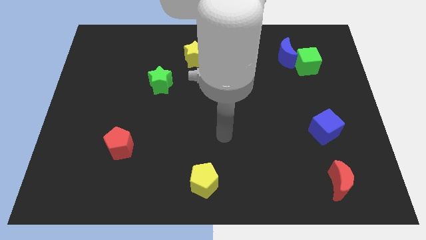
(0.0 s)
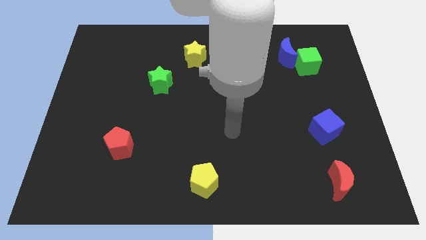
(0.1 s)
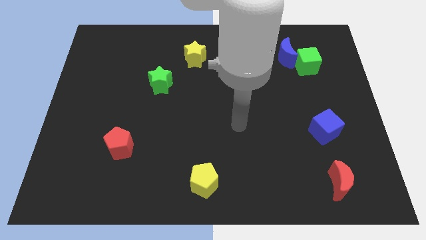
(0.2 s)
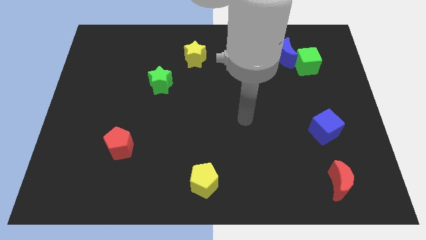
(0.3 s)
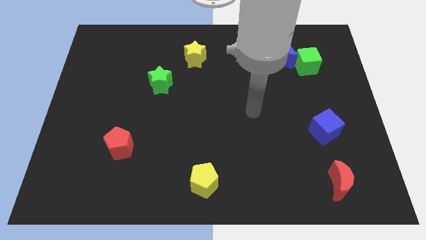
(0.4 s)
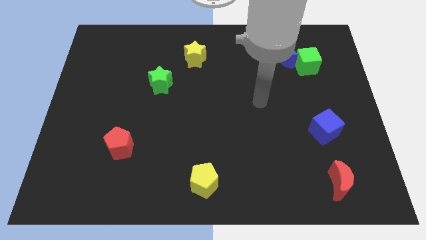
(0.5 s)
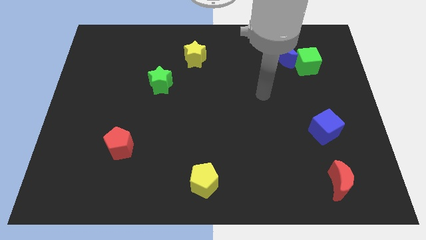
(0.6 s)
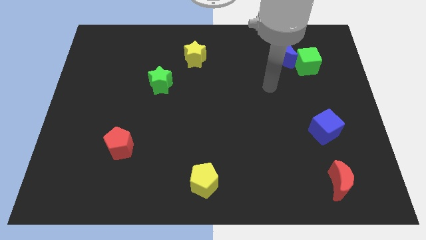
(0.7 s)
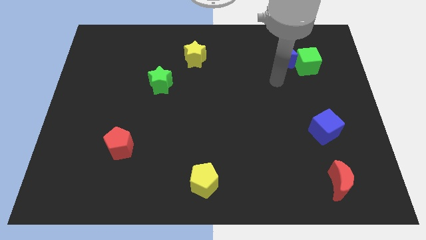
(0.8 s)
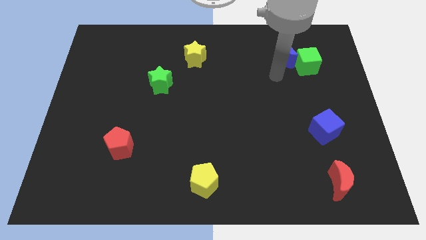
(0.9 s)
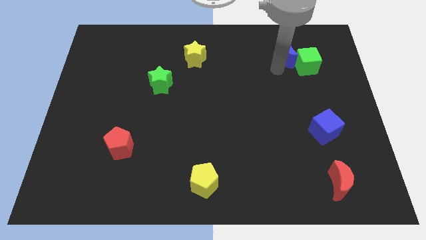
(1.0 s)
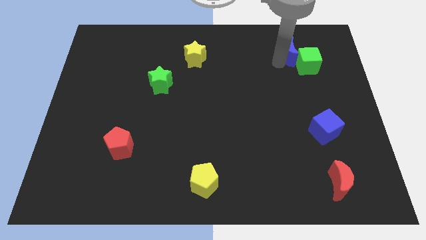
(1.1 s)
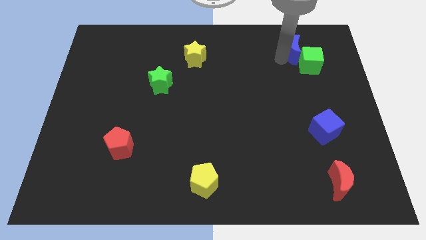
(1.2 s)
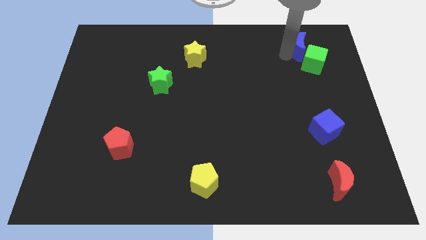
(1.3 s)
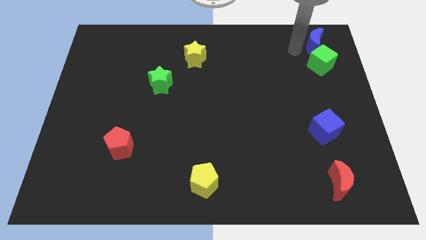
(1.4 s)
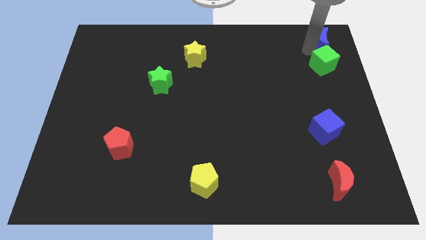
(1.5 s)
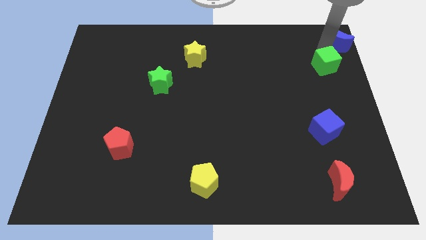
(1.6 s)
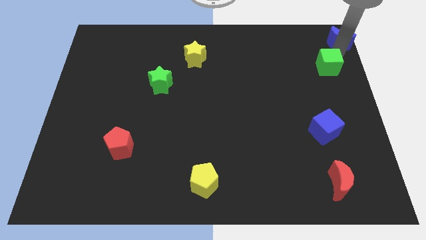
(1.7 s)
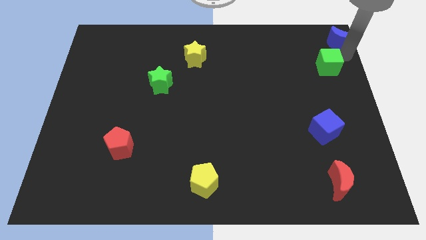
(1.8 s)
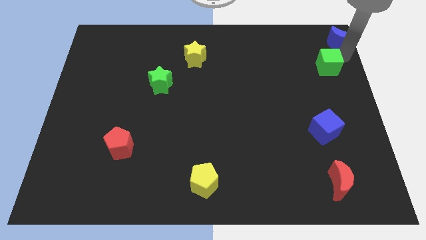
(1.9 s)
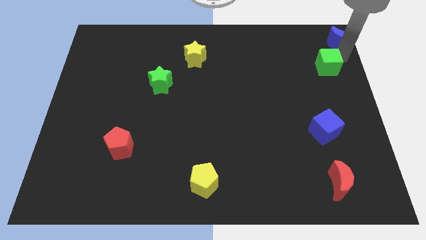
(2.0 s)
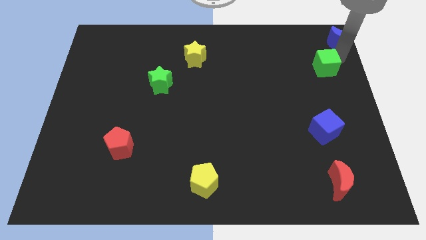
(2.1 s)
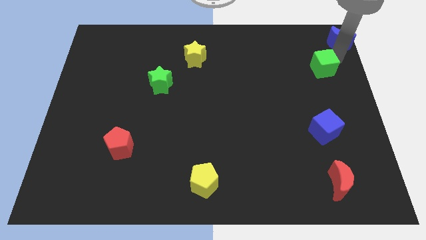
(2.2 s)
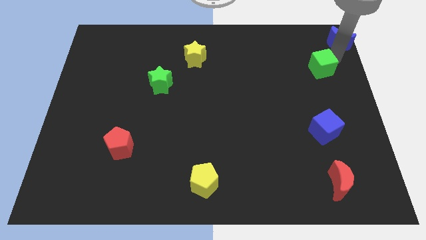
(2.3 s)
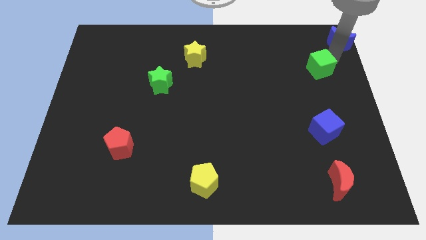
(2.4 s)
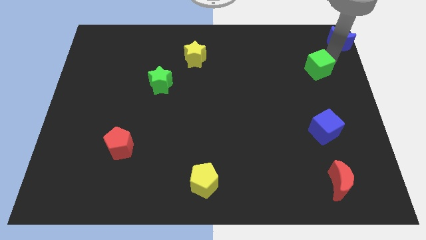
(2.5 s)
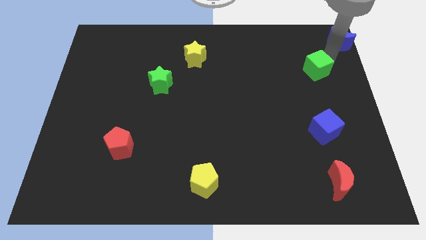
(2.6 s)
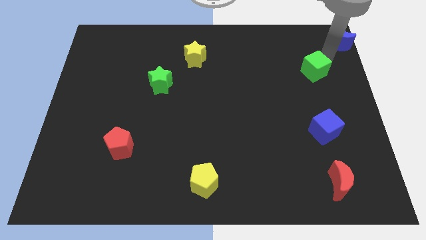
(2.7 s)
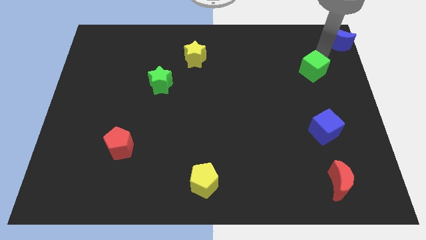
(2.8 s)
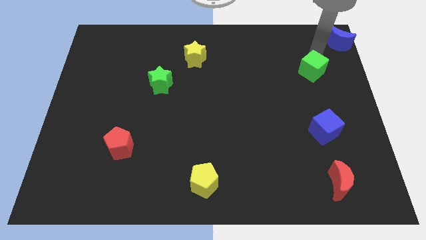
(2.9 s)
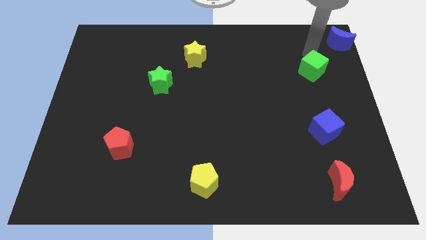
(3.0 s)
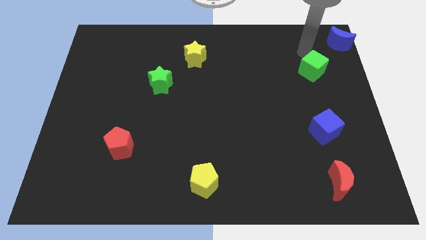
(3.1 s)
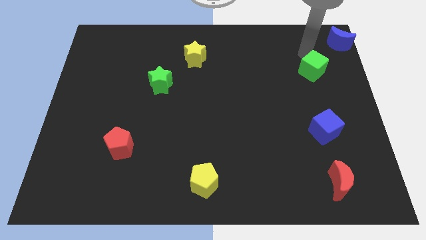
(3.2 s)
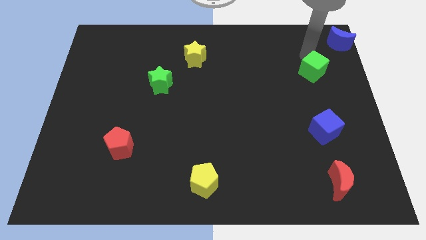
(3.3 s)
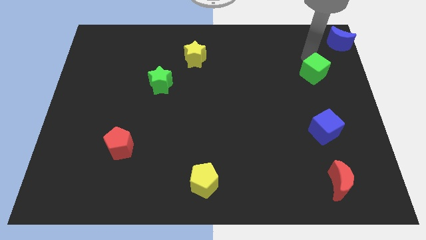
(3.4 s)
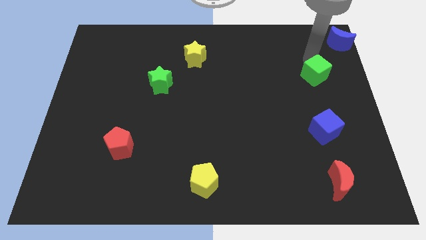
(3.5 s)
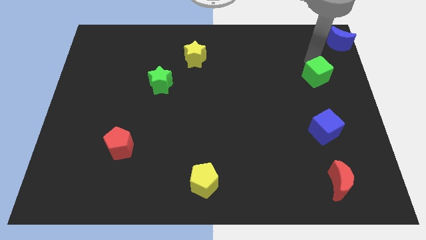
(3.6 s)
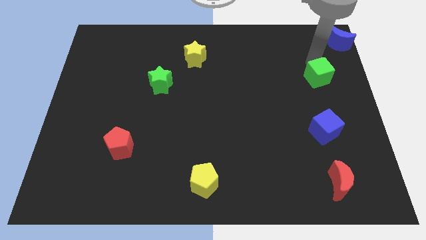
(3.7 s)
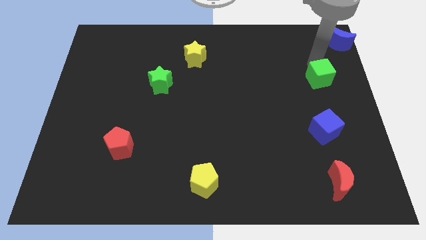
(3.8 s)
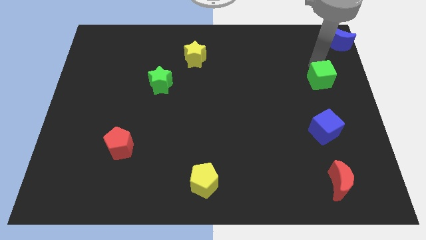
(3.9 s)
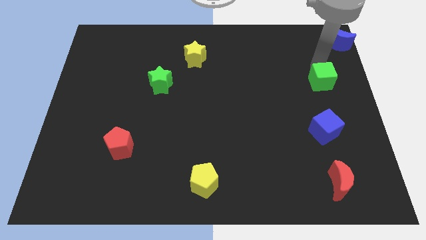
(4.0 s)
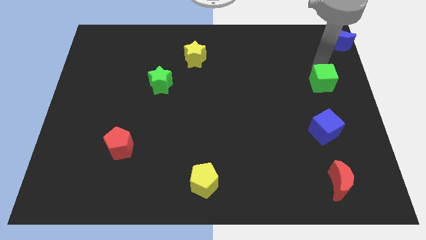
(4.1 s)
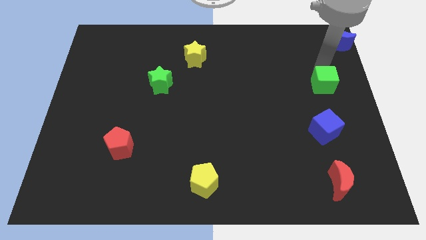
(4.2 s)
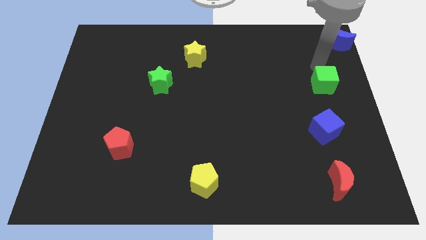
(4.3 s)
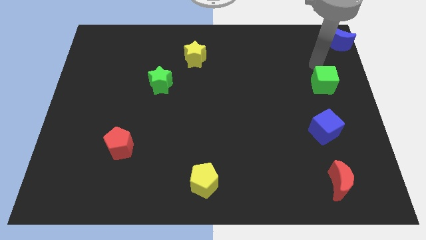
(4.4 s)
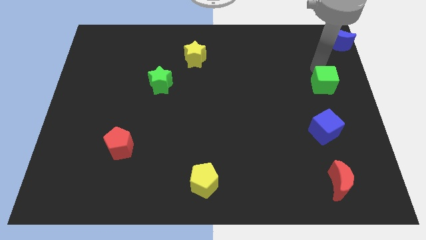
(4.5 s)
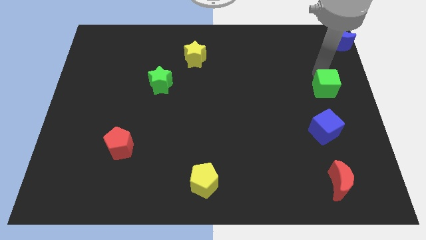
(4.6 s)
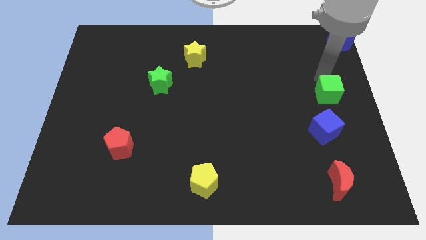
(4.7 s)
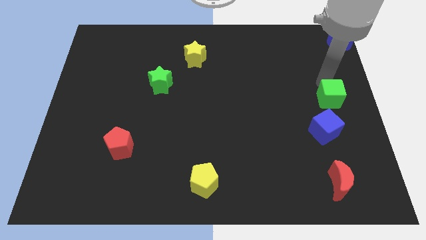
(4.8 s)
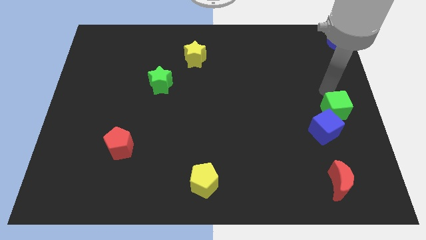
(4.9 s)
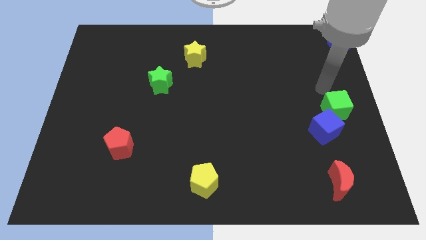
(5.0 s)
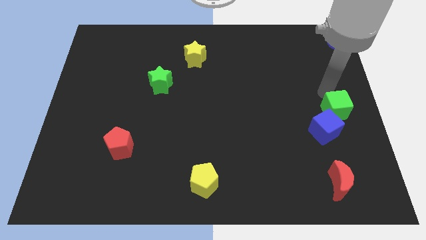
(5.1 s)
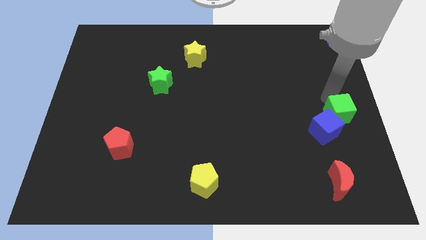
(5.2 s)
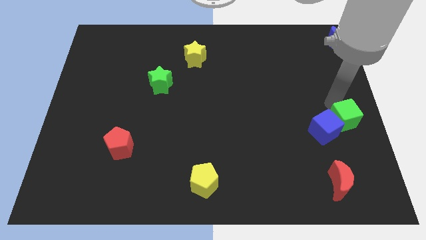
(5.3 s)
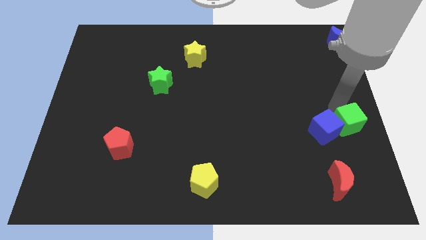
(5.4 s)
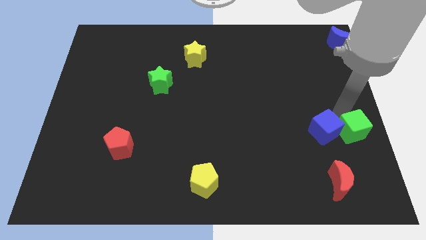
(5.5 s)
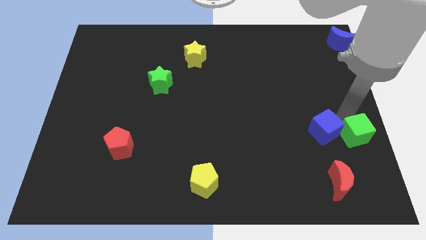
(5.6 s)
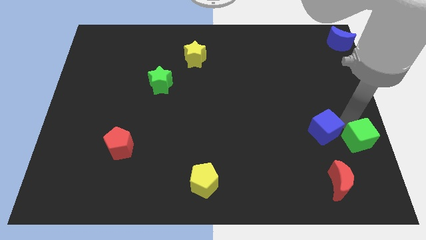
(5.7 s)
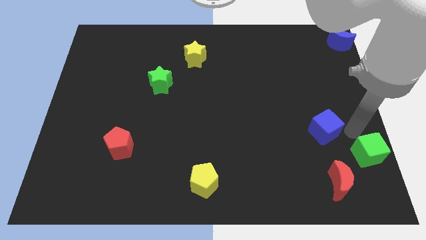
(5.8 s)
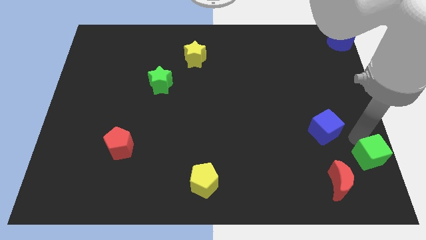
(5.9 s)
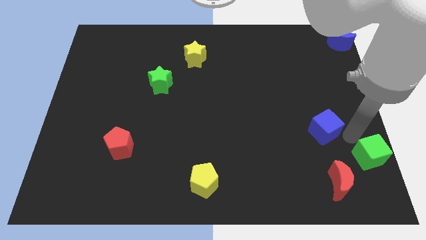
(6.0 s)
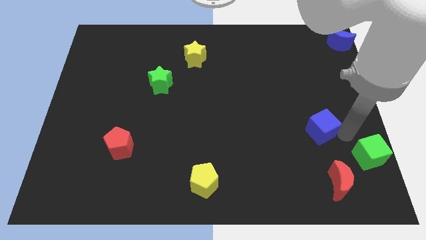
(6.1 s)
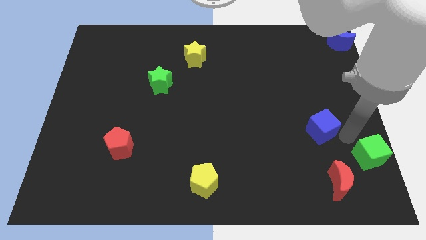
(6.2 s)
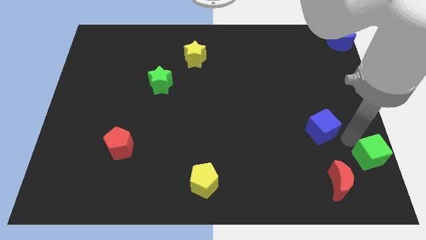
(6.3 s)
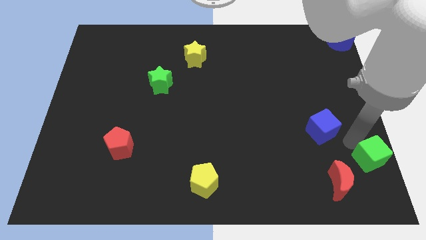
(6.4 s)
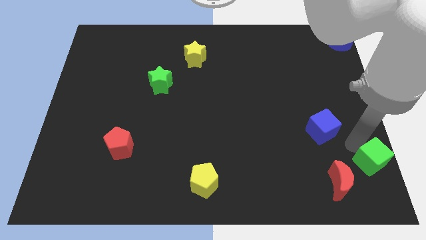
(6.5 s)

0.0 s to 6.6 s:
push the green cube to the bottom right corner

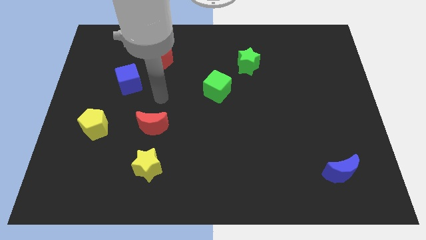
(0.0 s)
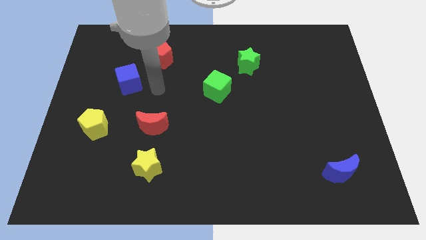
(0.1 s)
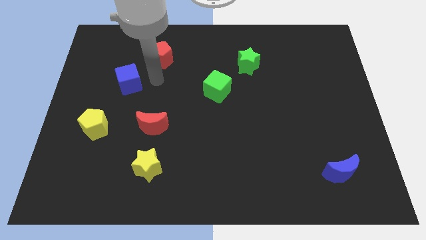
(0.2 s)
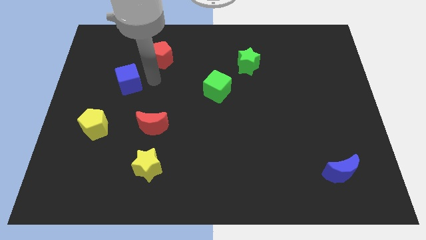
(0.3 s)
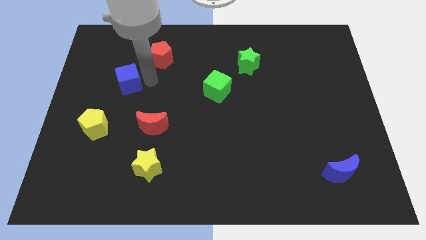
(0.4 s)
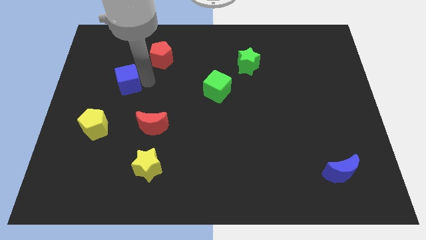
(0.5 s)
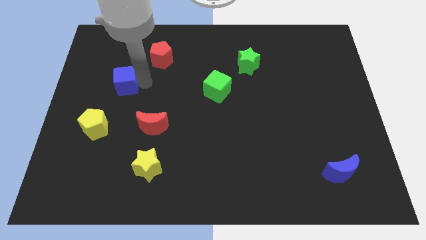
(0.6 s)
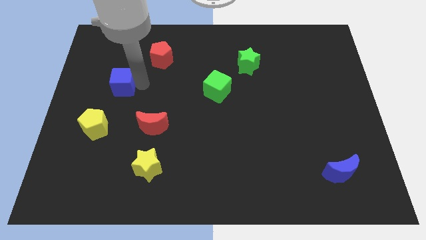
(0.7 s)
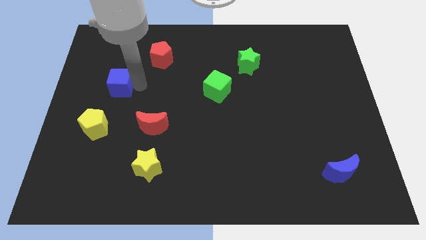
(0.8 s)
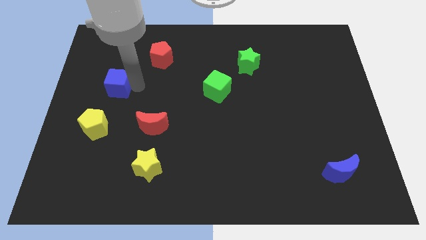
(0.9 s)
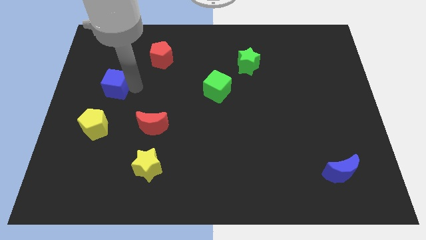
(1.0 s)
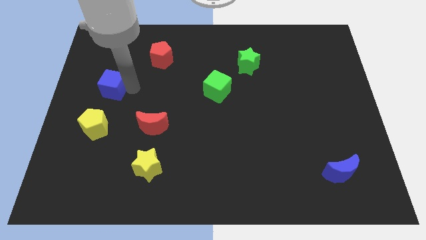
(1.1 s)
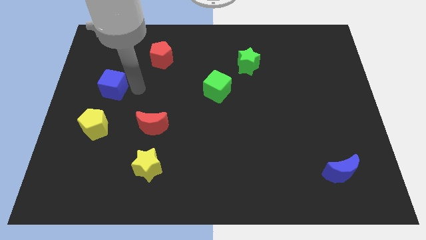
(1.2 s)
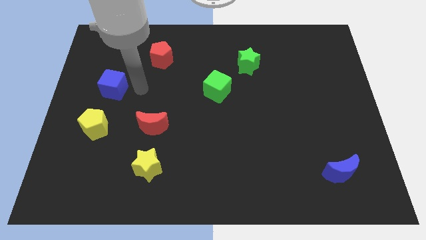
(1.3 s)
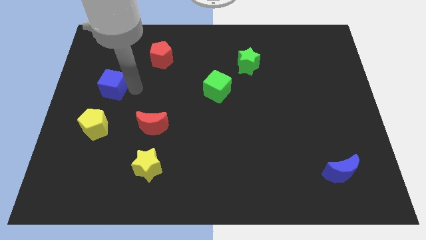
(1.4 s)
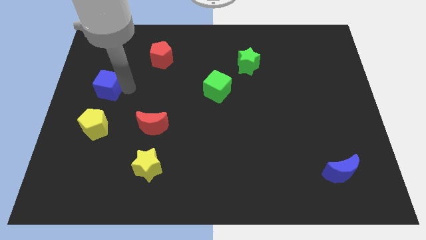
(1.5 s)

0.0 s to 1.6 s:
slide the blue cube to the left side of the board
